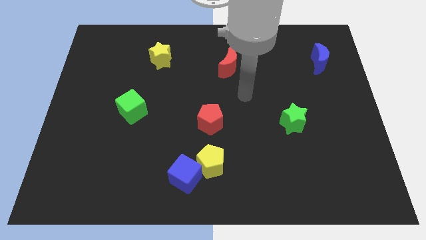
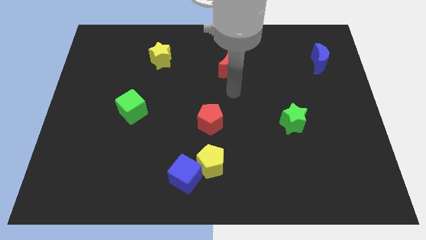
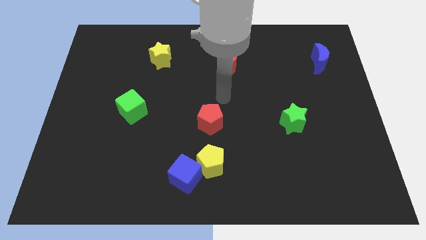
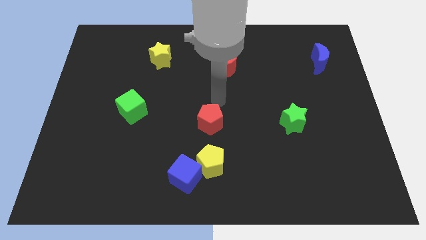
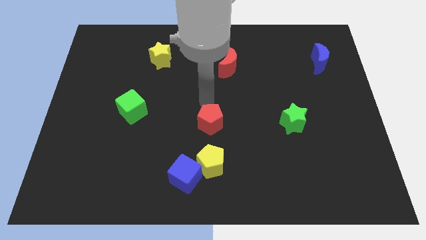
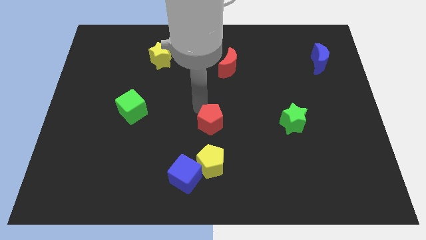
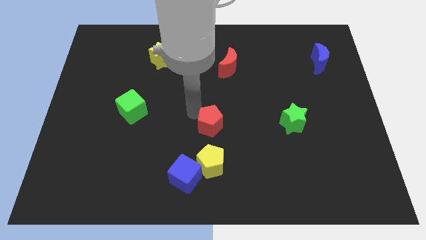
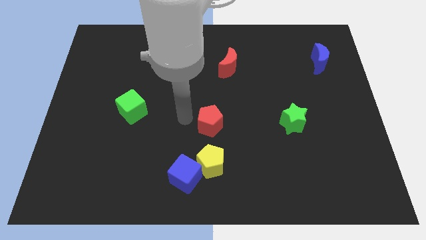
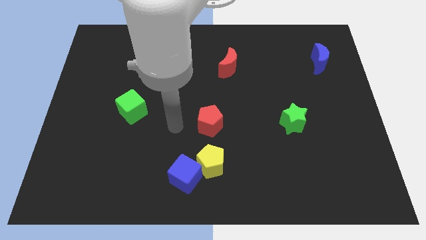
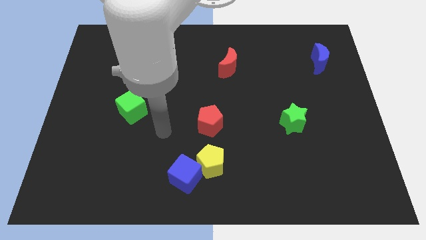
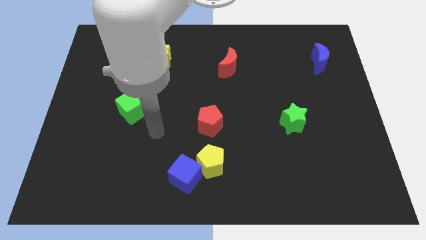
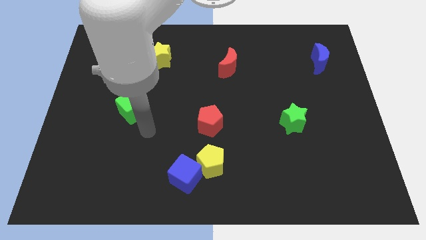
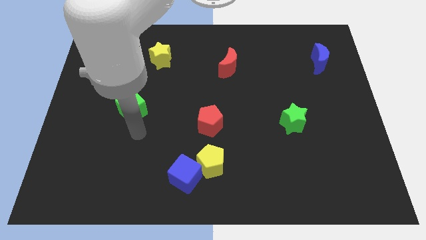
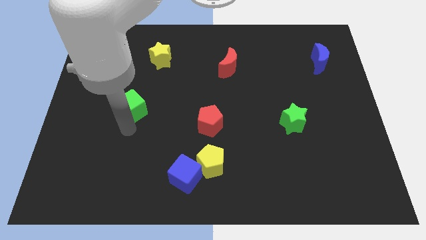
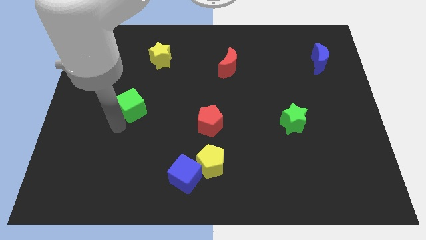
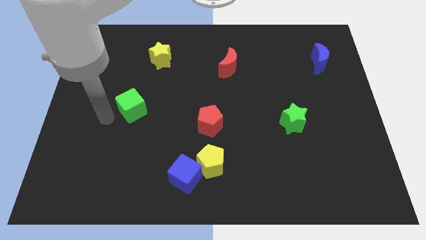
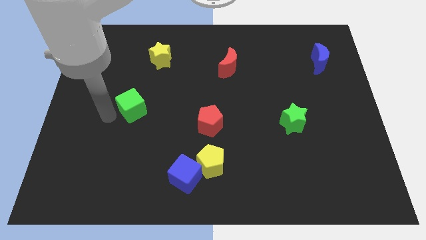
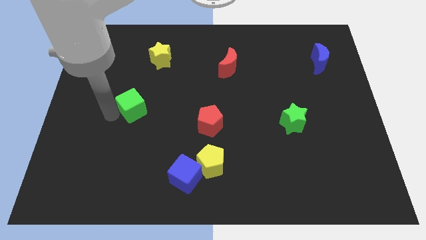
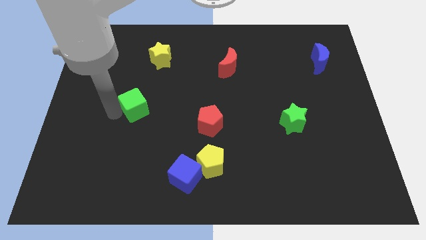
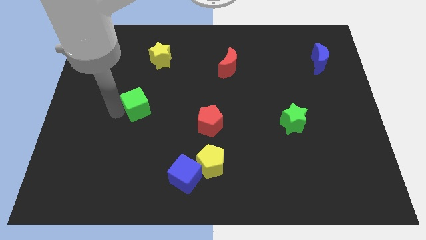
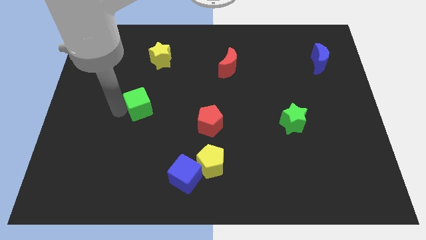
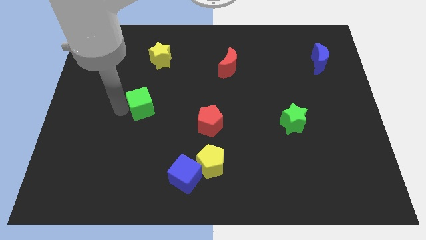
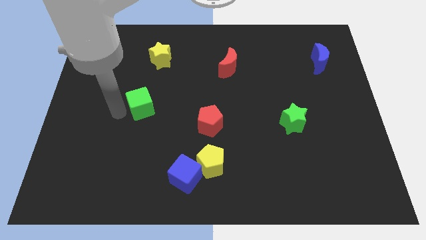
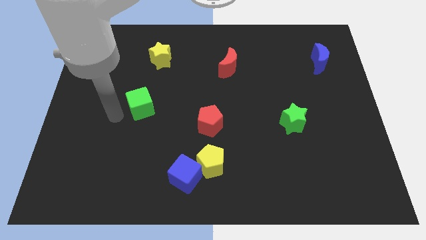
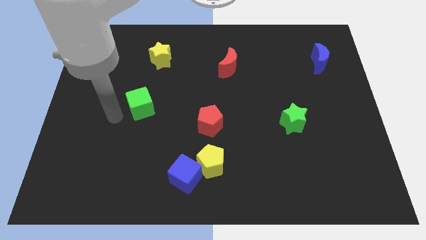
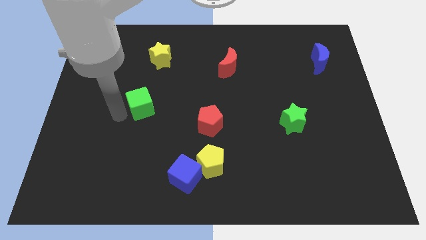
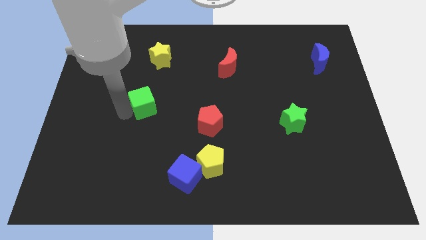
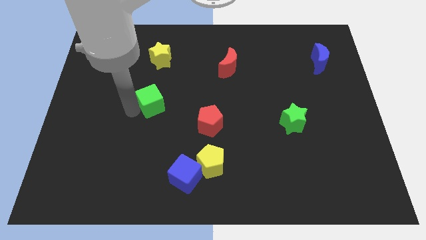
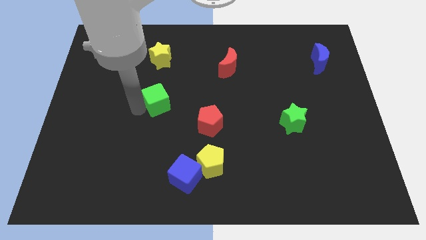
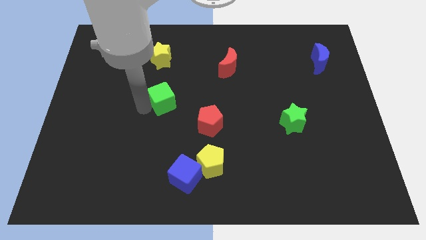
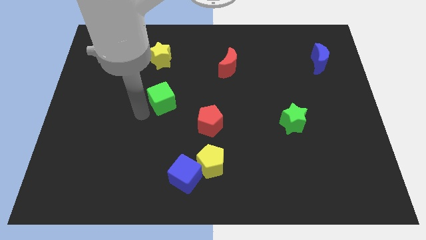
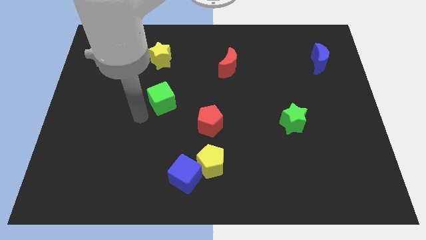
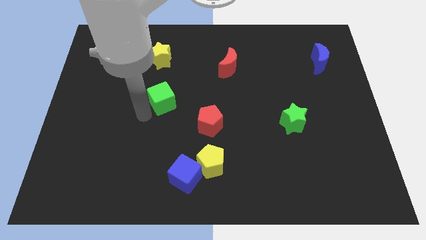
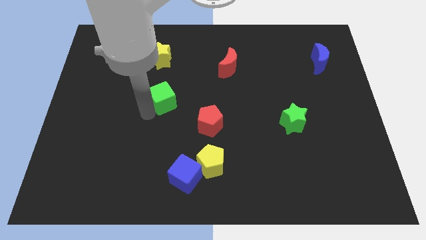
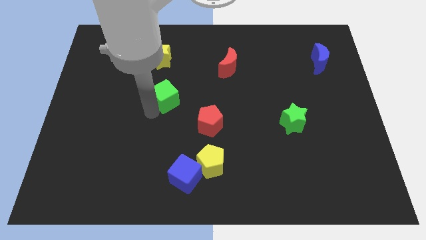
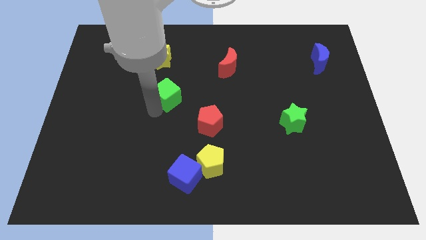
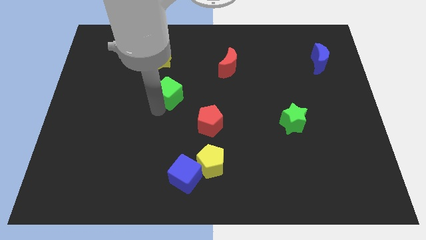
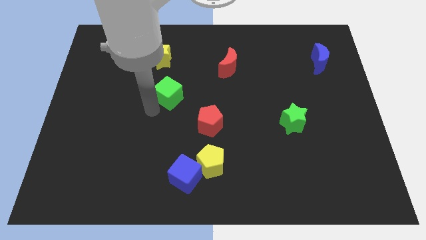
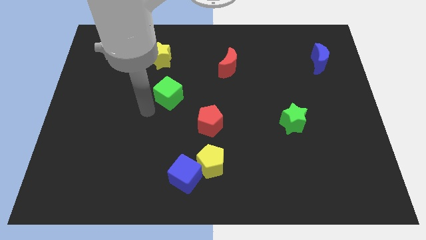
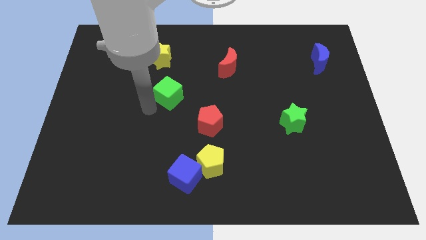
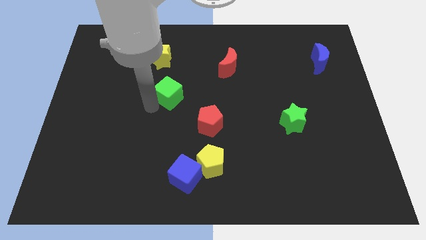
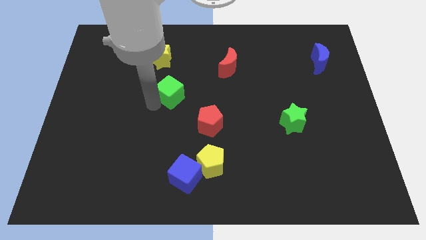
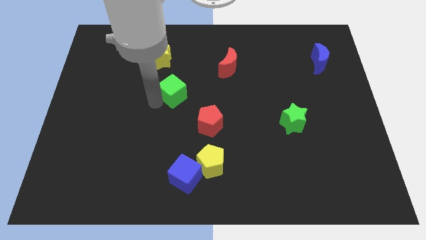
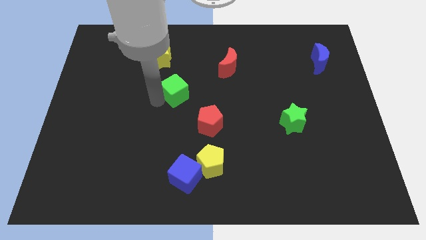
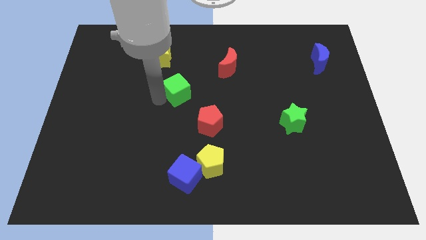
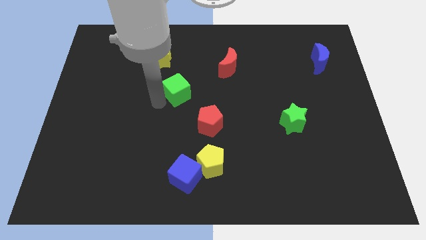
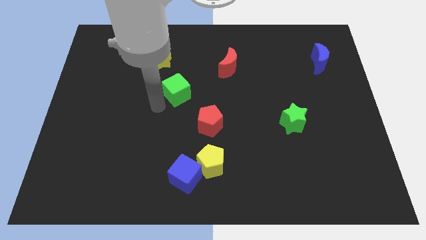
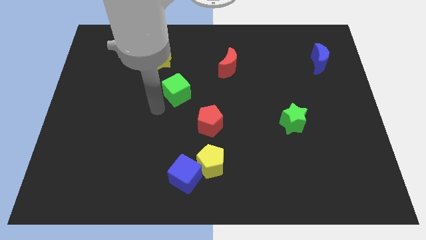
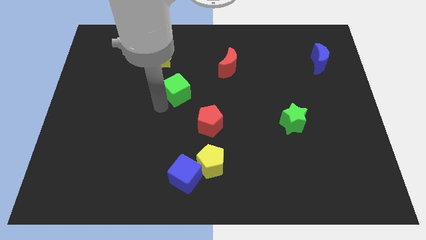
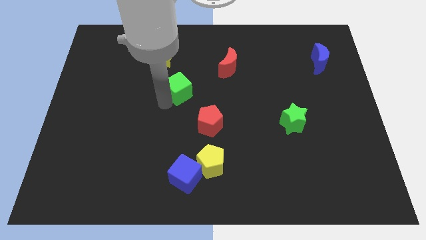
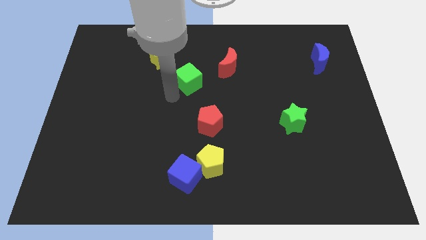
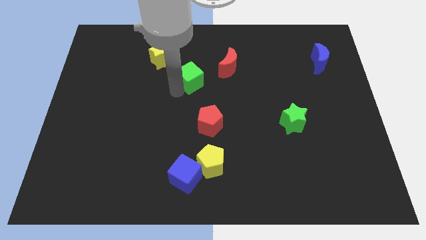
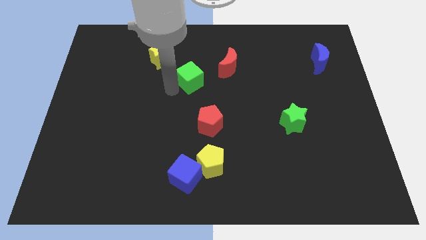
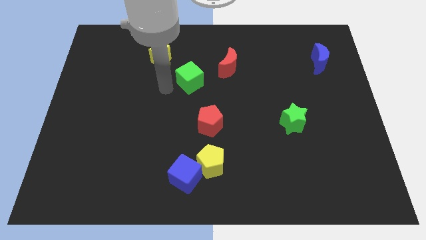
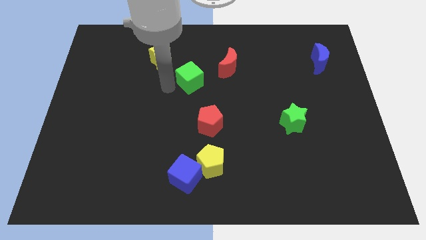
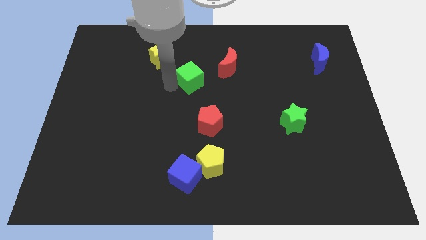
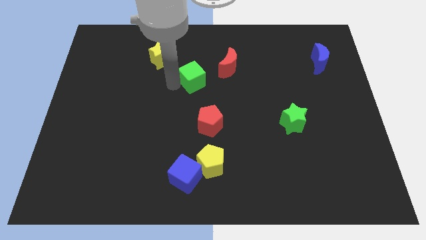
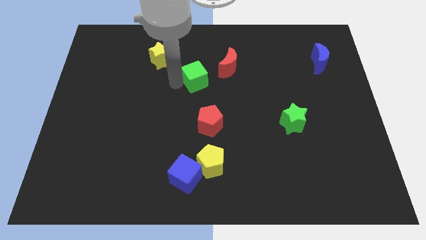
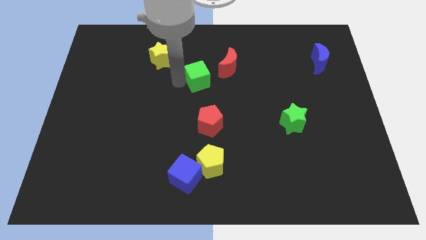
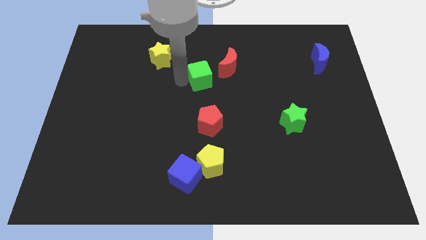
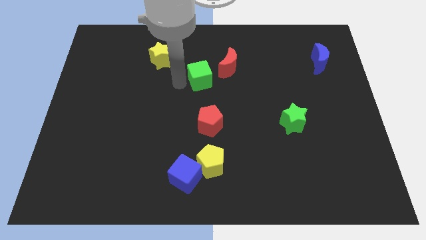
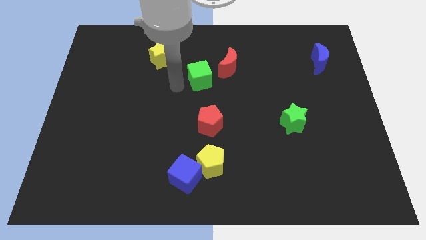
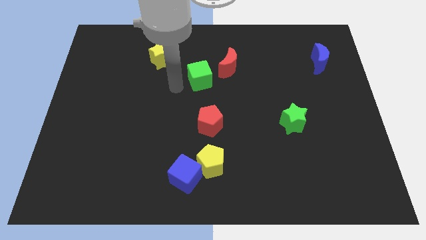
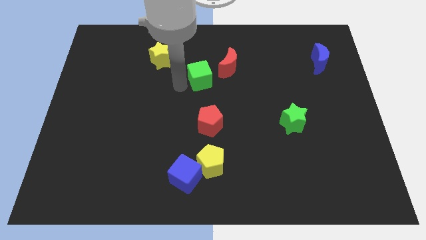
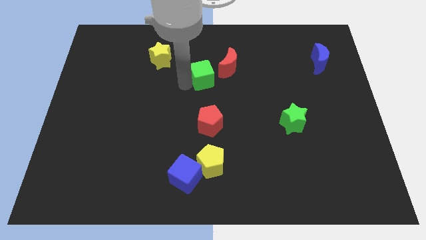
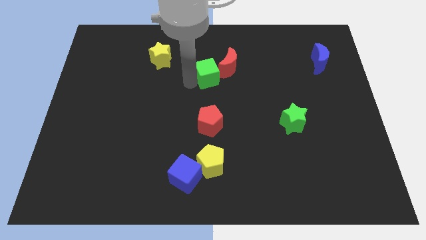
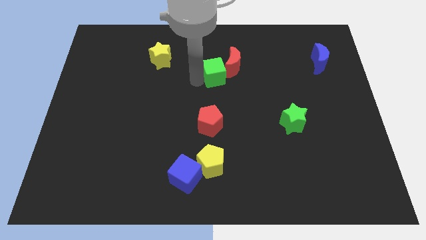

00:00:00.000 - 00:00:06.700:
move the green cube close to the red moon

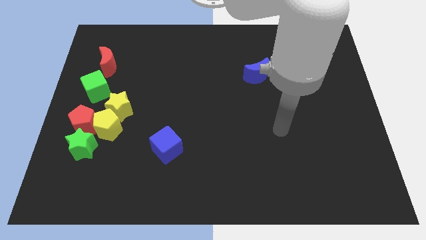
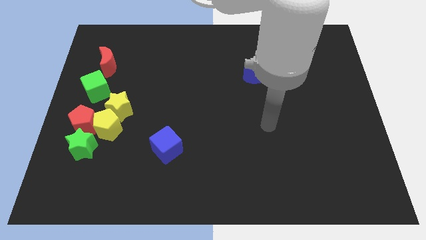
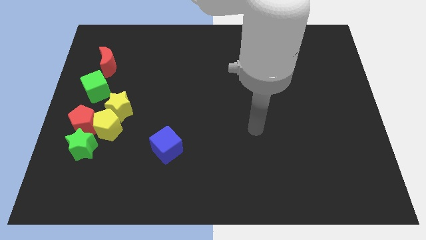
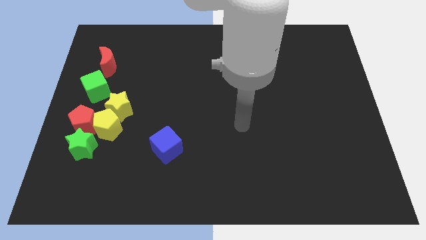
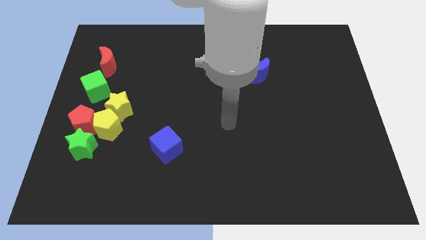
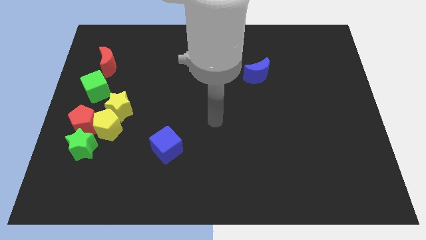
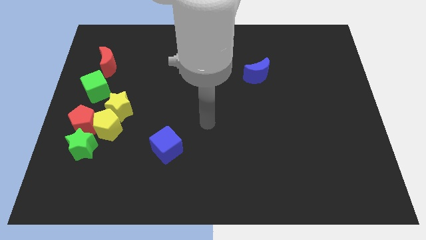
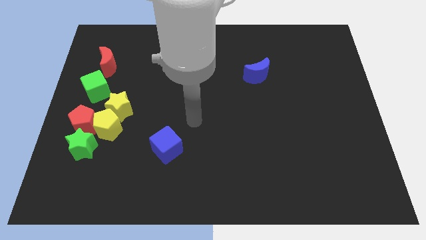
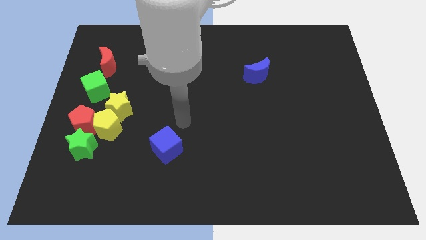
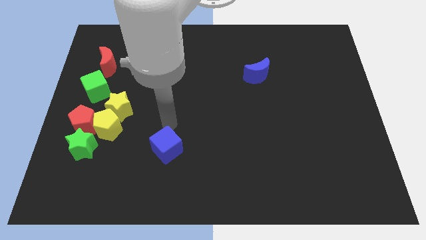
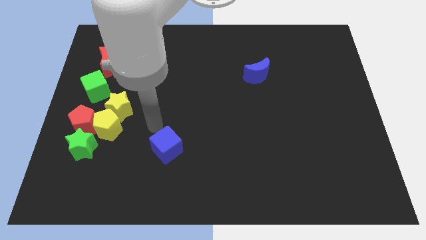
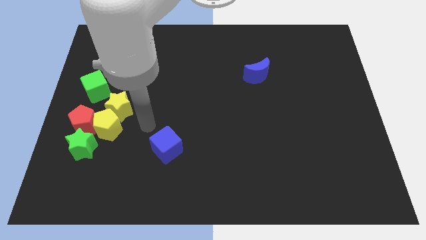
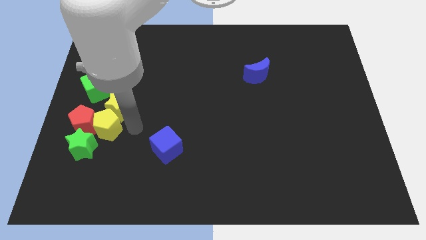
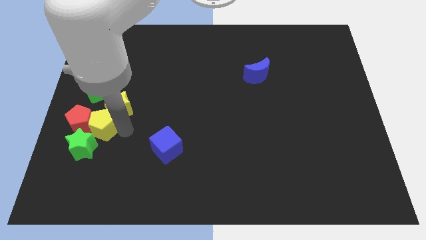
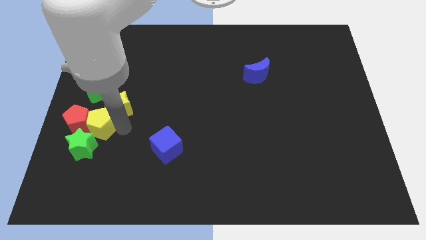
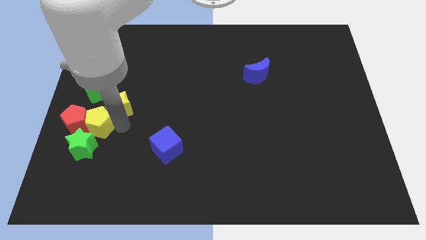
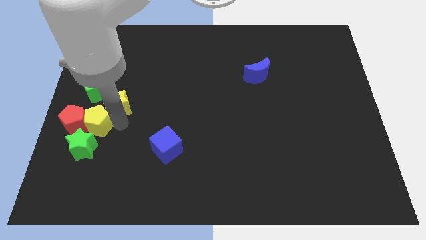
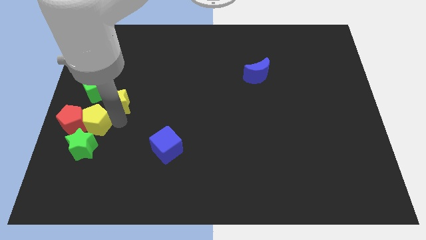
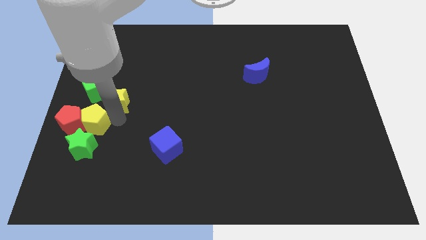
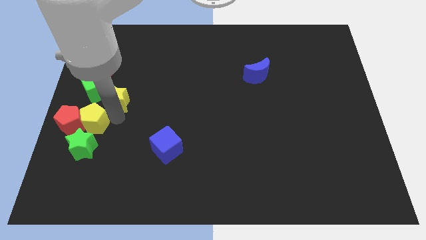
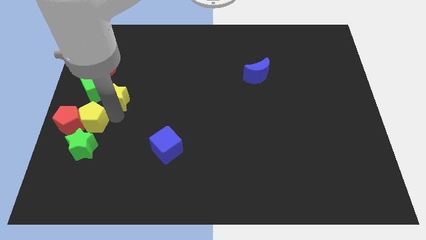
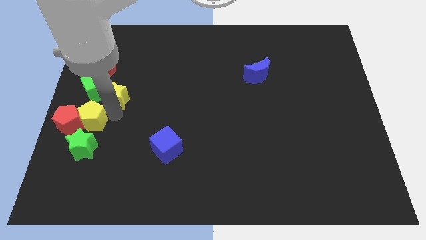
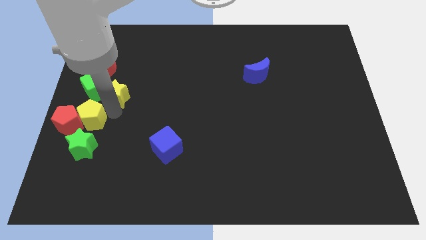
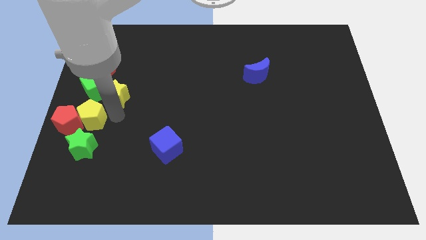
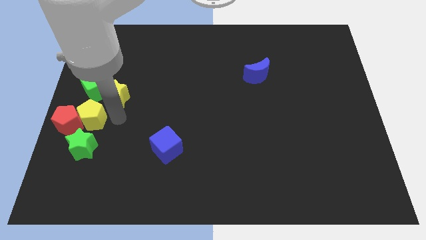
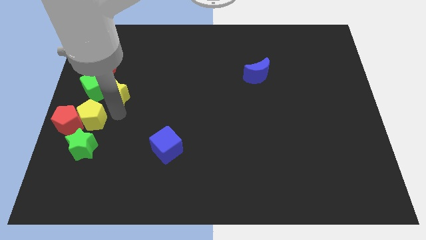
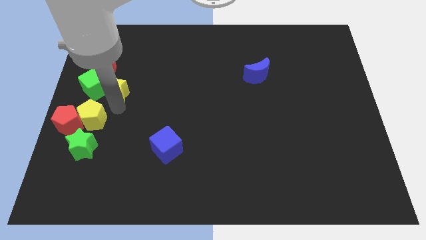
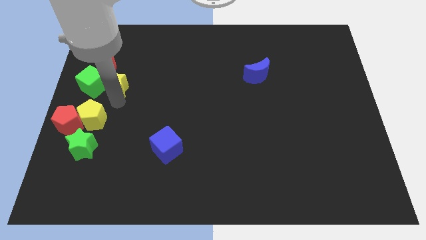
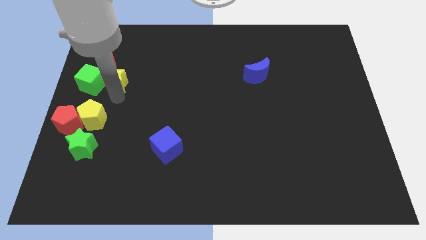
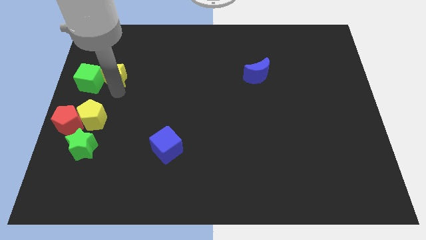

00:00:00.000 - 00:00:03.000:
move the yellow star to the red moon
